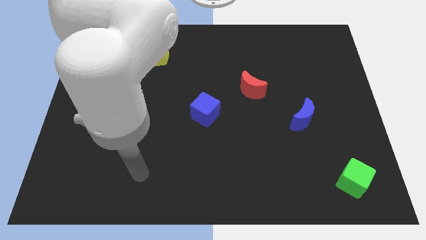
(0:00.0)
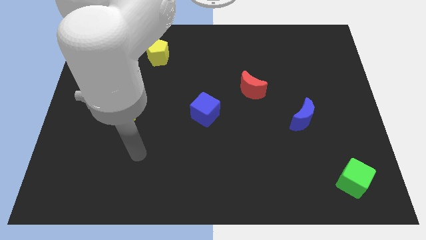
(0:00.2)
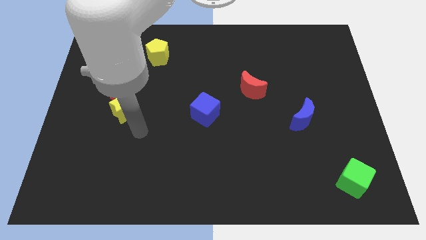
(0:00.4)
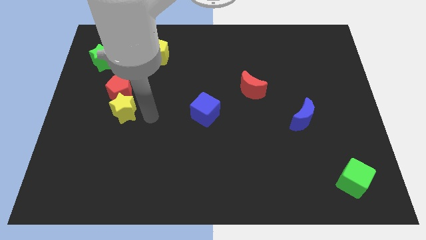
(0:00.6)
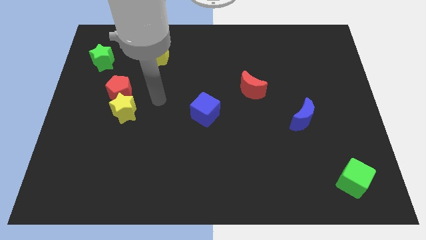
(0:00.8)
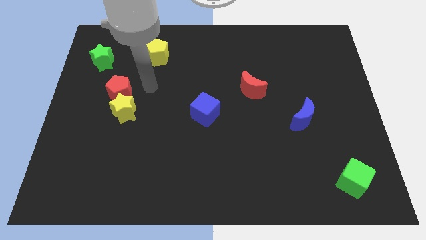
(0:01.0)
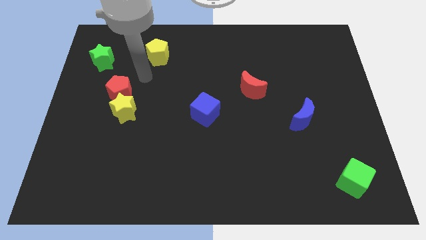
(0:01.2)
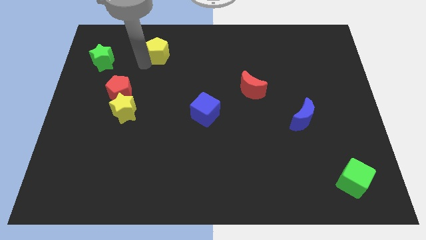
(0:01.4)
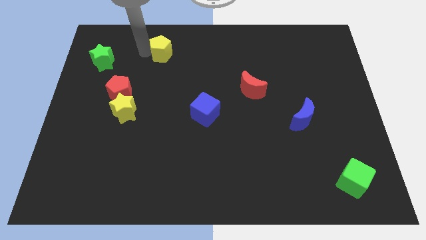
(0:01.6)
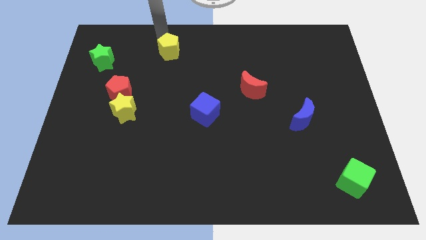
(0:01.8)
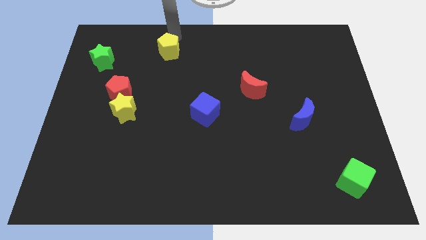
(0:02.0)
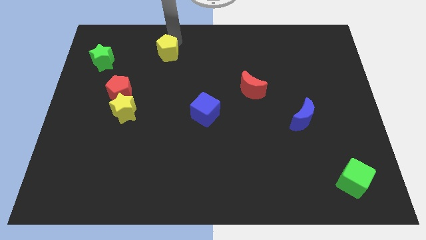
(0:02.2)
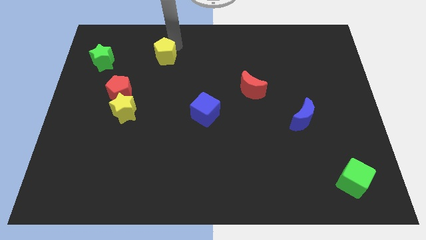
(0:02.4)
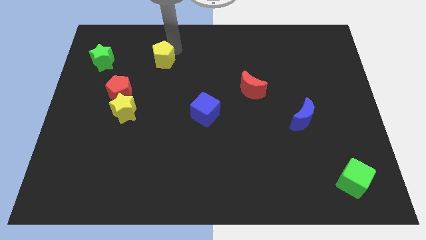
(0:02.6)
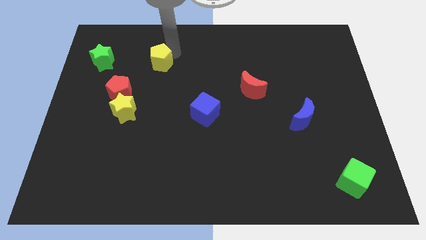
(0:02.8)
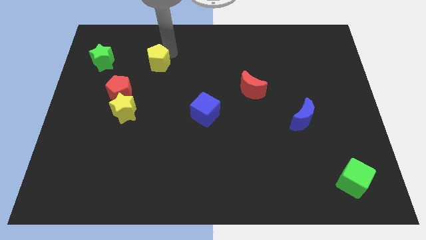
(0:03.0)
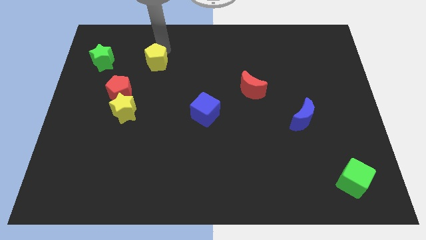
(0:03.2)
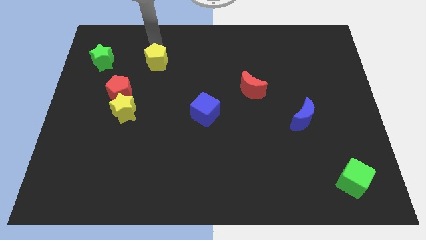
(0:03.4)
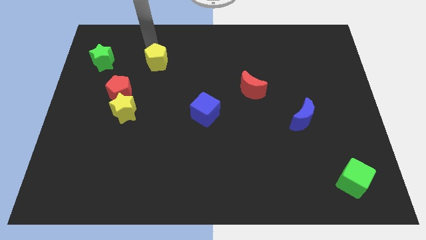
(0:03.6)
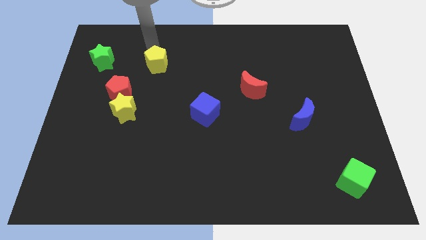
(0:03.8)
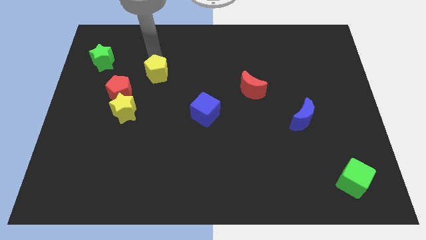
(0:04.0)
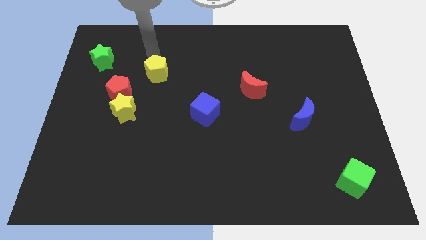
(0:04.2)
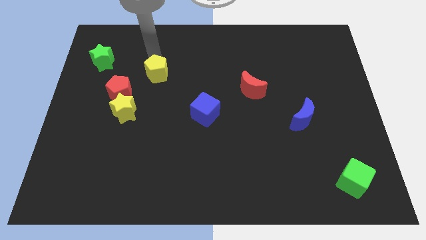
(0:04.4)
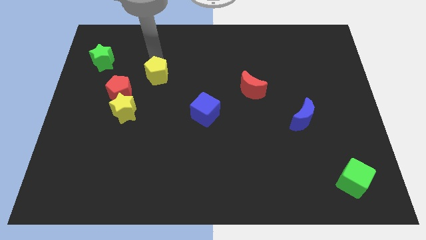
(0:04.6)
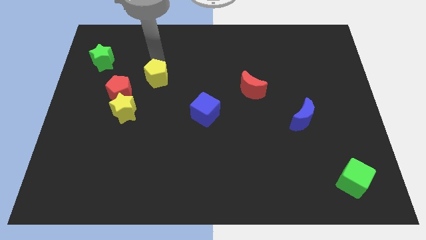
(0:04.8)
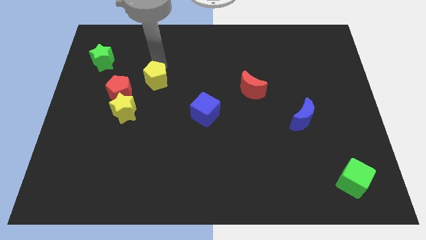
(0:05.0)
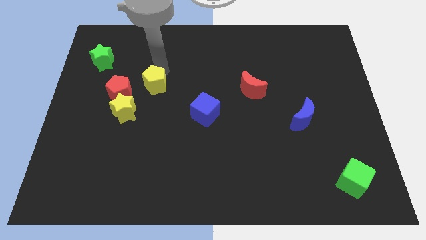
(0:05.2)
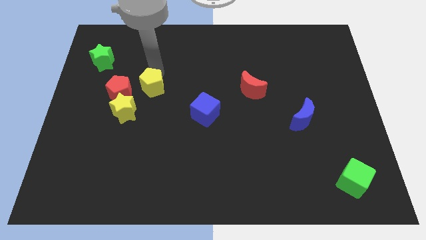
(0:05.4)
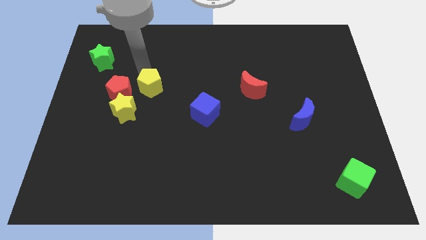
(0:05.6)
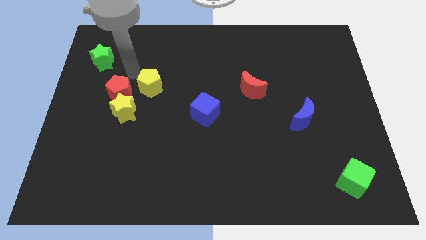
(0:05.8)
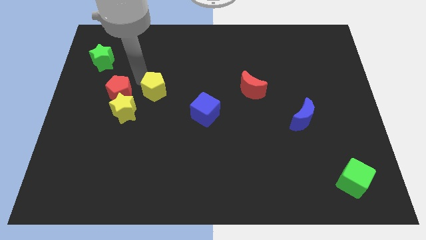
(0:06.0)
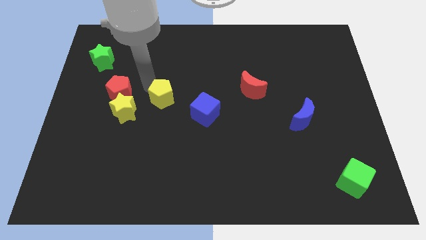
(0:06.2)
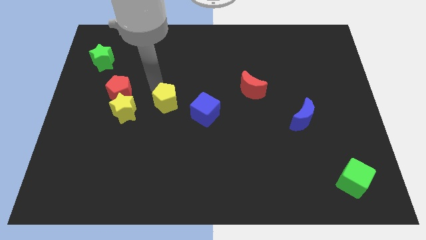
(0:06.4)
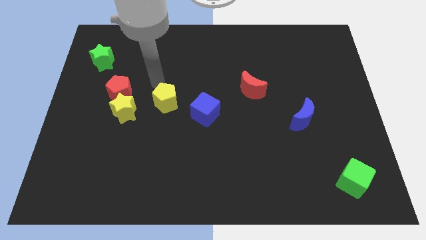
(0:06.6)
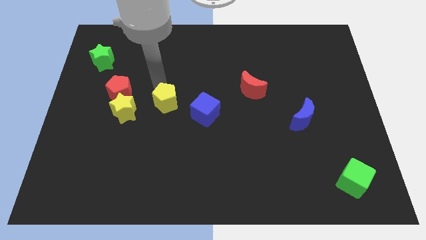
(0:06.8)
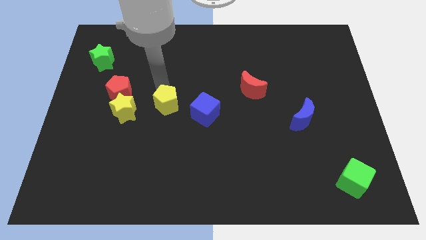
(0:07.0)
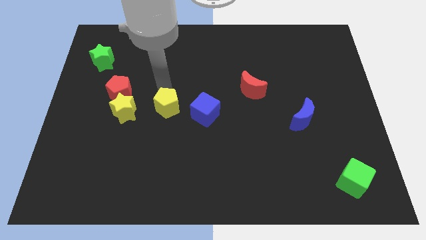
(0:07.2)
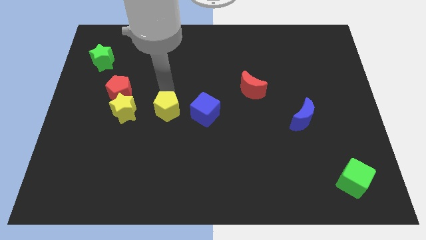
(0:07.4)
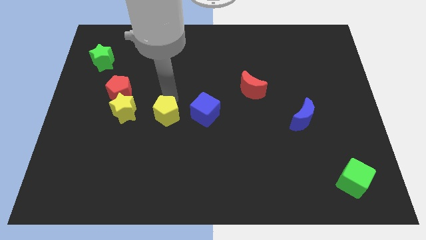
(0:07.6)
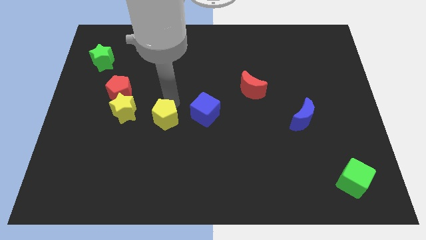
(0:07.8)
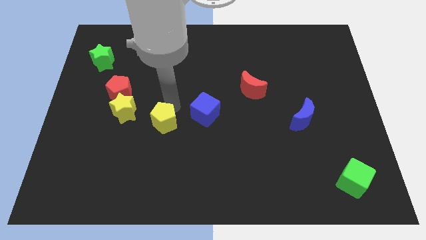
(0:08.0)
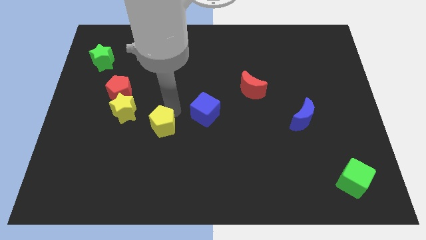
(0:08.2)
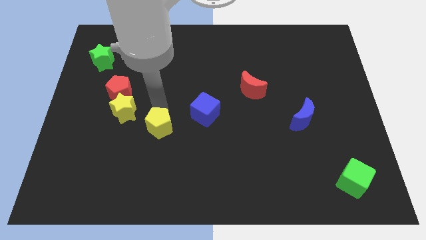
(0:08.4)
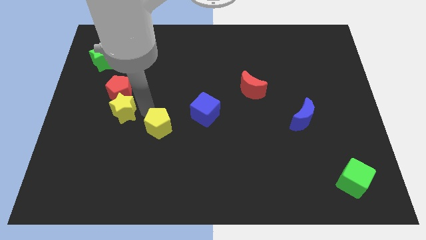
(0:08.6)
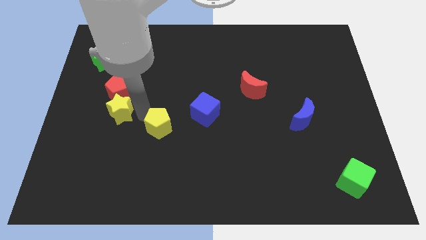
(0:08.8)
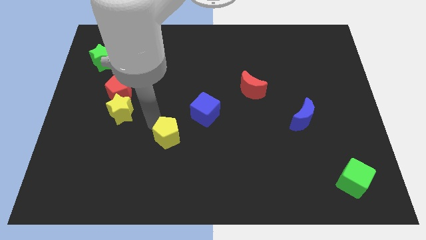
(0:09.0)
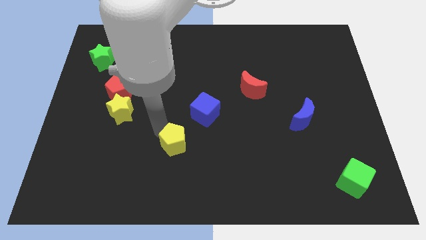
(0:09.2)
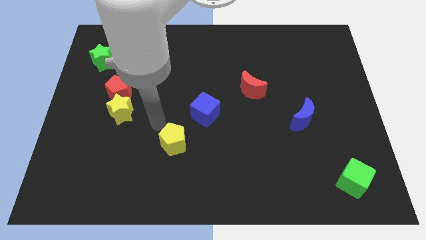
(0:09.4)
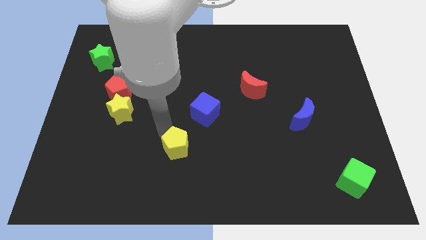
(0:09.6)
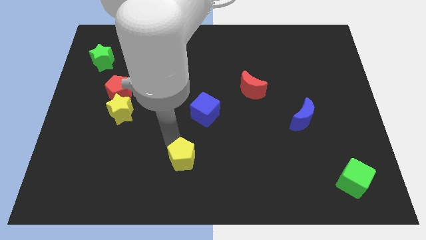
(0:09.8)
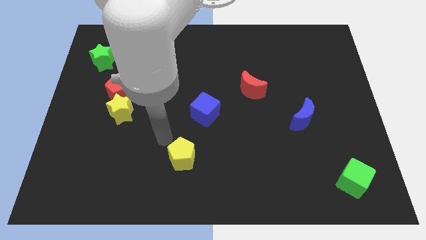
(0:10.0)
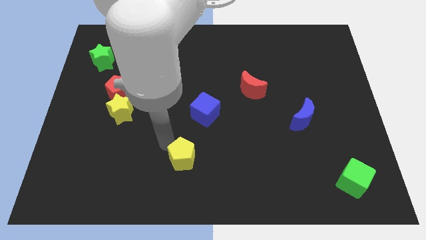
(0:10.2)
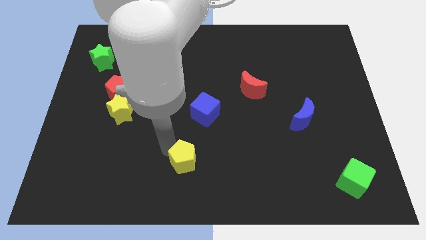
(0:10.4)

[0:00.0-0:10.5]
push the yellow pentagon to the bottom

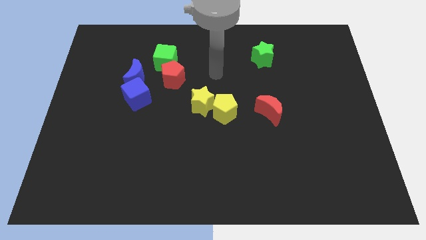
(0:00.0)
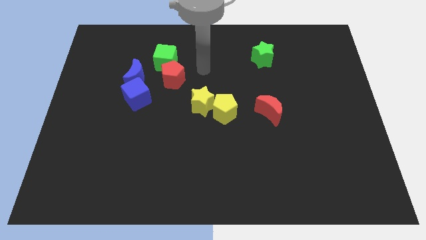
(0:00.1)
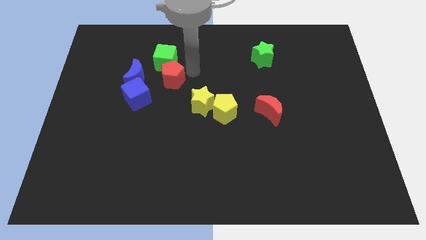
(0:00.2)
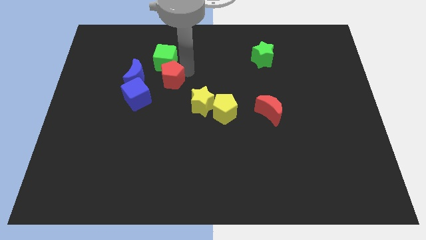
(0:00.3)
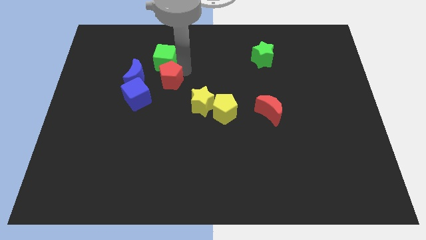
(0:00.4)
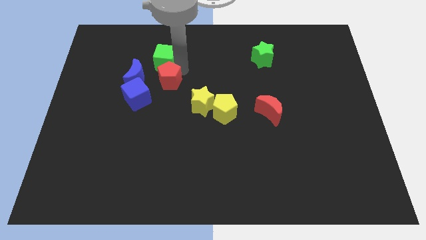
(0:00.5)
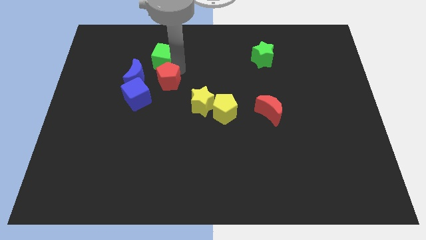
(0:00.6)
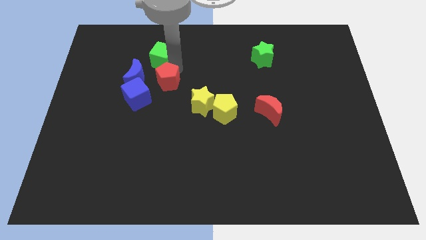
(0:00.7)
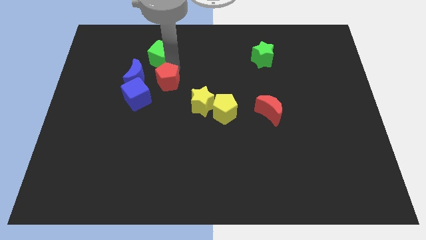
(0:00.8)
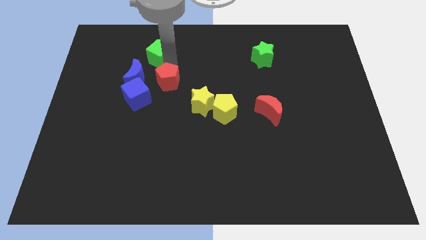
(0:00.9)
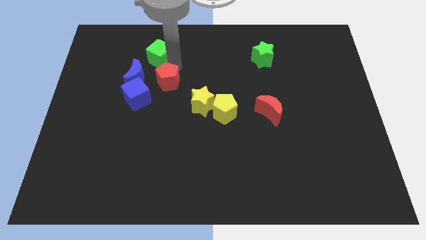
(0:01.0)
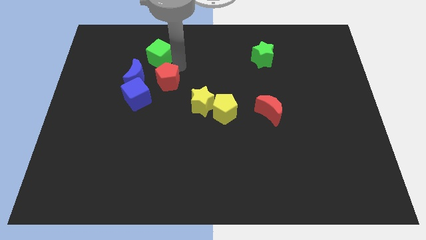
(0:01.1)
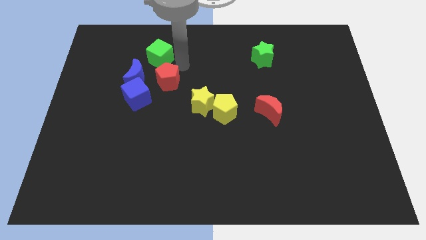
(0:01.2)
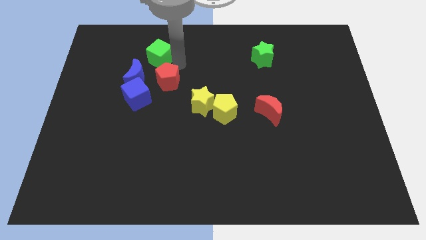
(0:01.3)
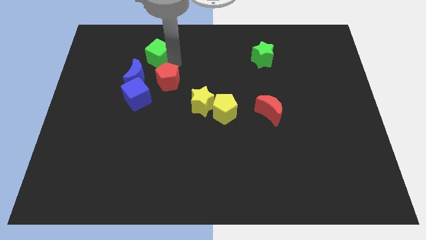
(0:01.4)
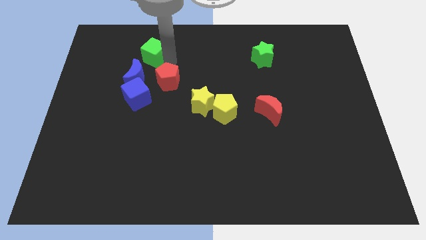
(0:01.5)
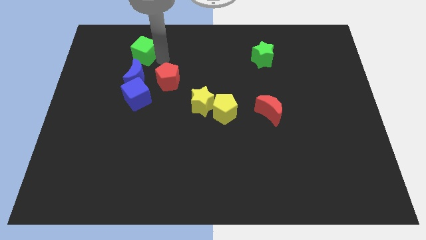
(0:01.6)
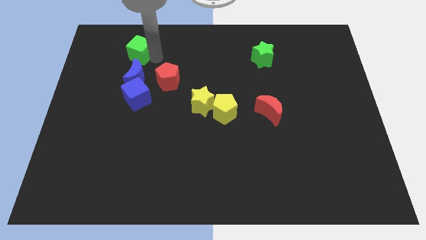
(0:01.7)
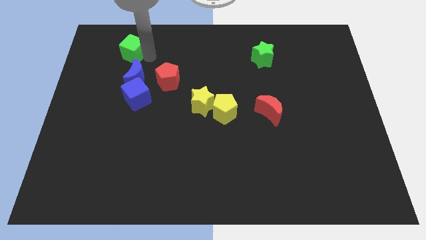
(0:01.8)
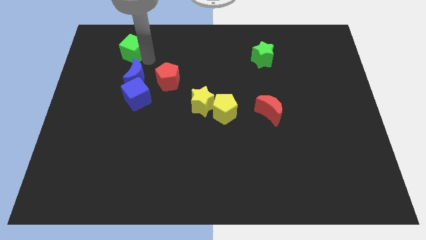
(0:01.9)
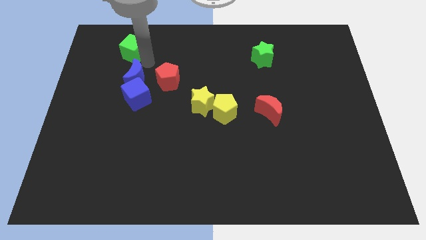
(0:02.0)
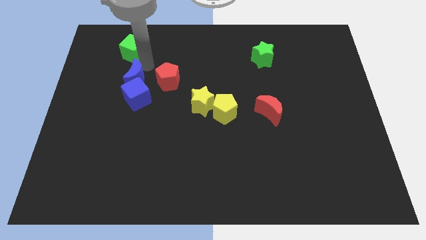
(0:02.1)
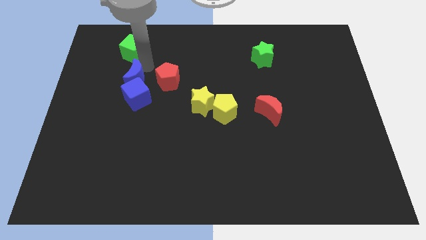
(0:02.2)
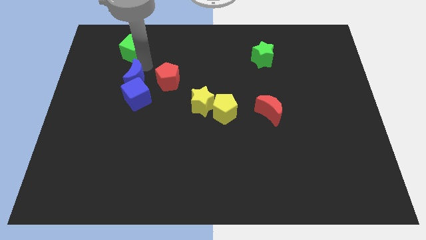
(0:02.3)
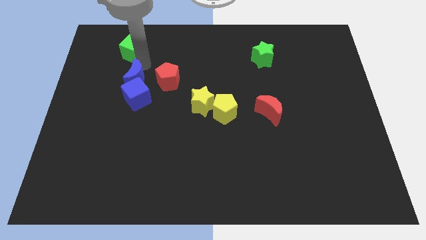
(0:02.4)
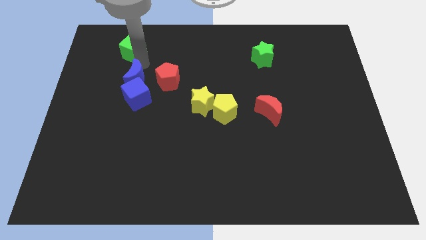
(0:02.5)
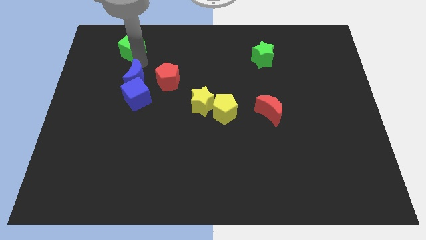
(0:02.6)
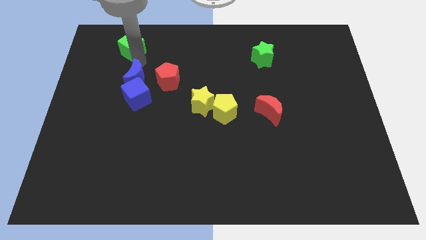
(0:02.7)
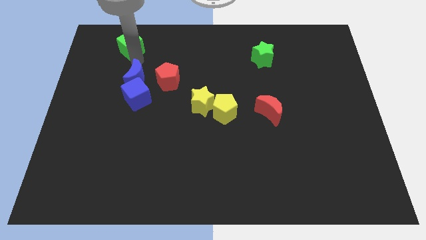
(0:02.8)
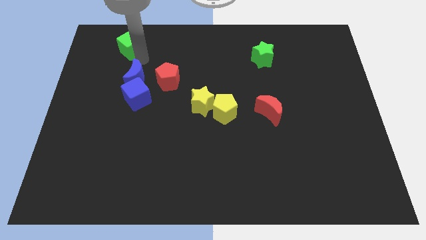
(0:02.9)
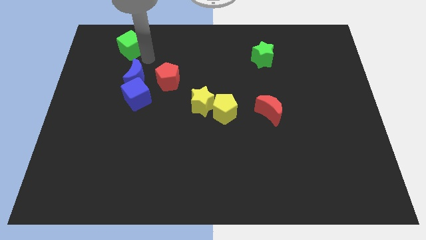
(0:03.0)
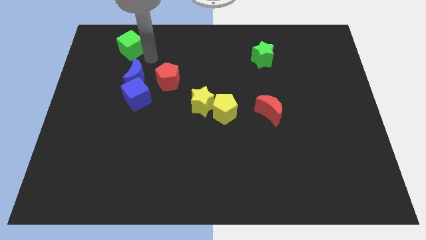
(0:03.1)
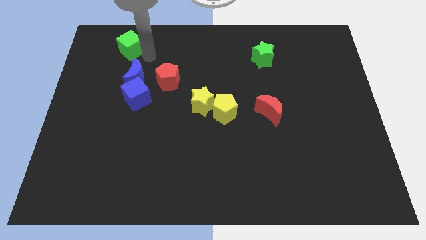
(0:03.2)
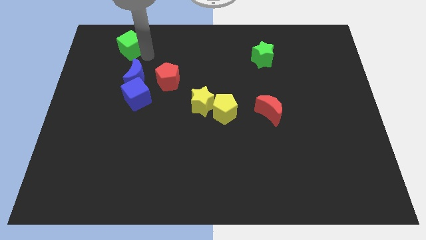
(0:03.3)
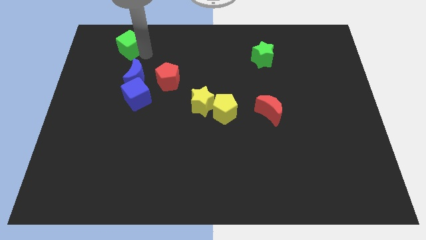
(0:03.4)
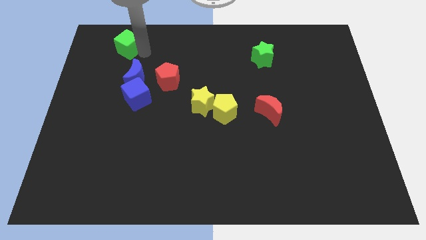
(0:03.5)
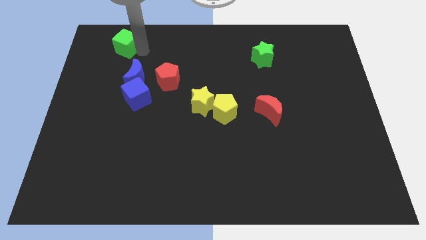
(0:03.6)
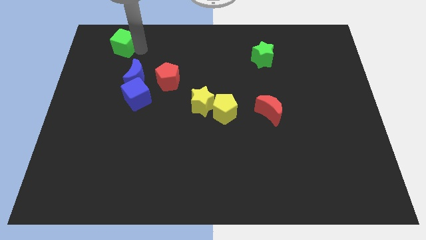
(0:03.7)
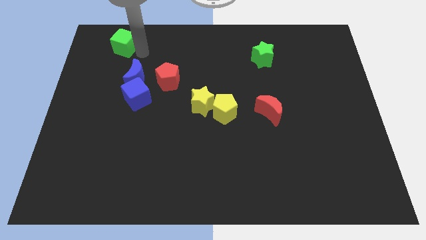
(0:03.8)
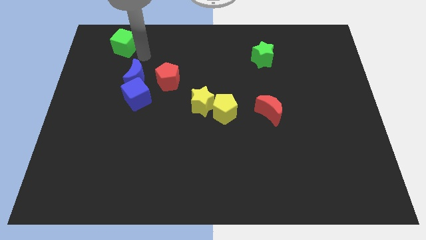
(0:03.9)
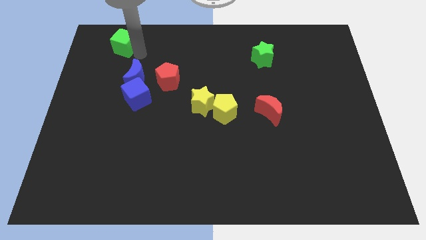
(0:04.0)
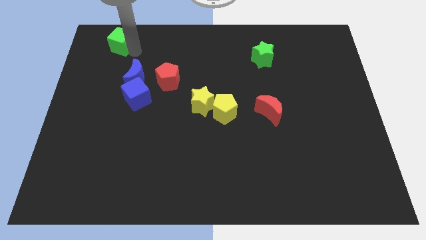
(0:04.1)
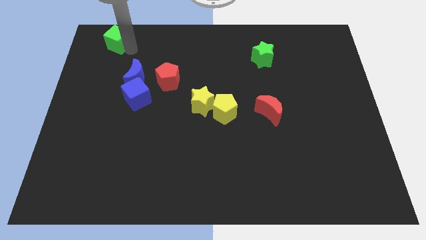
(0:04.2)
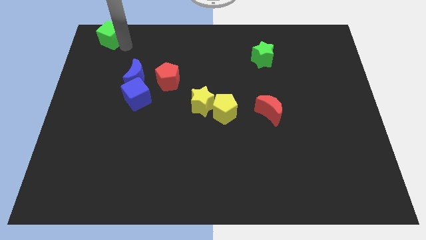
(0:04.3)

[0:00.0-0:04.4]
move the green cube to the top left corner
